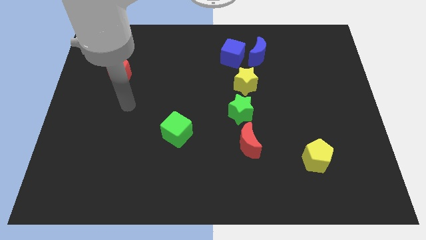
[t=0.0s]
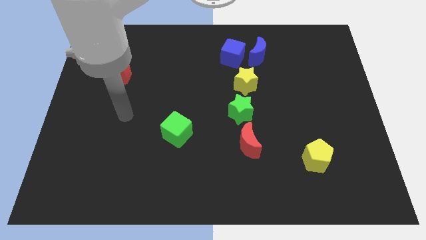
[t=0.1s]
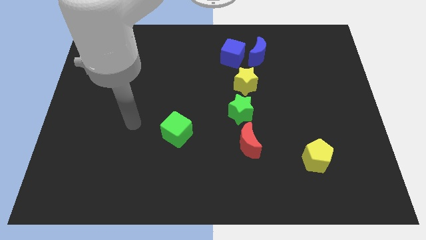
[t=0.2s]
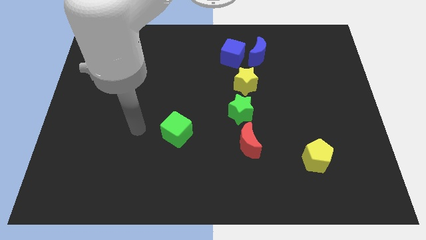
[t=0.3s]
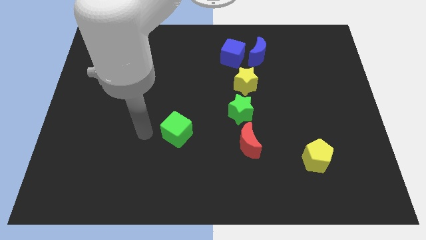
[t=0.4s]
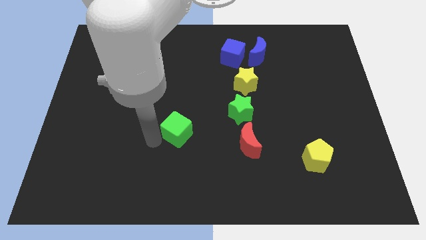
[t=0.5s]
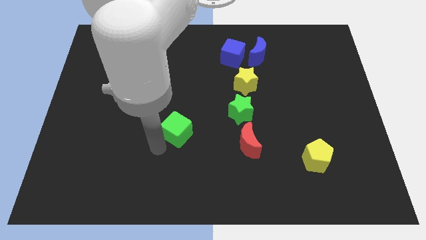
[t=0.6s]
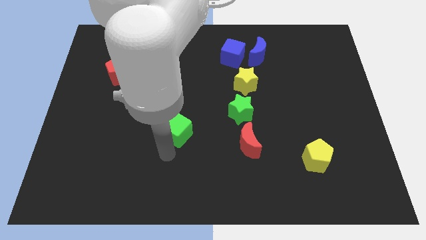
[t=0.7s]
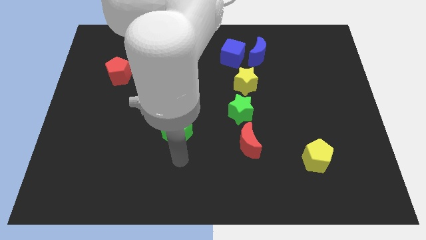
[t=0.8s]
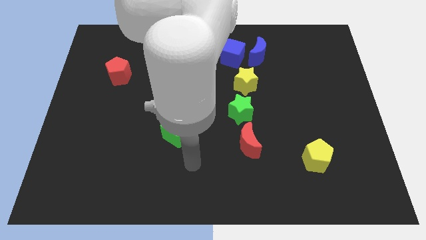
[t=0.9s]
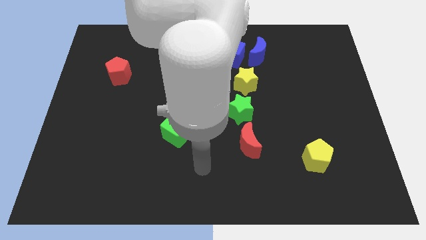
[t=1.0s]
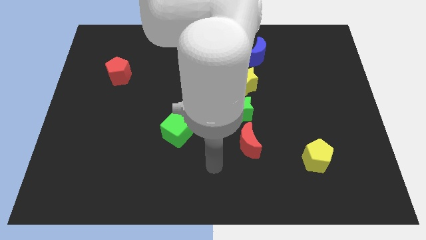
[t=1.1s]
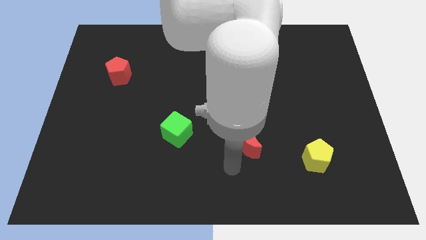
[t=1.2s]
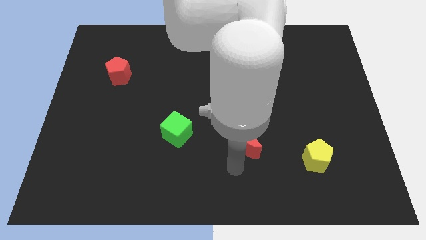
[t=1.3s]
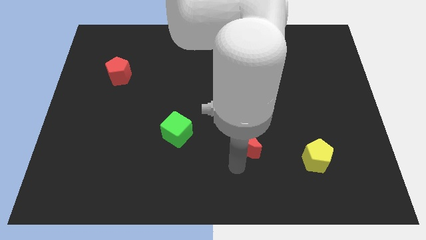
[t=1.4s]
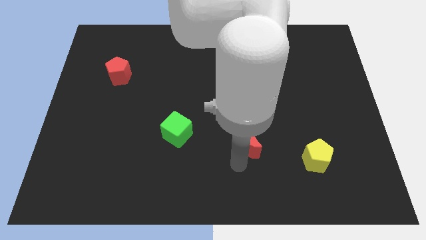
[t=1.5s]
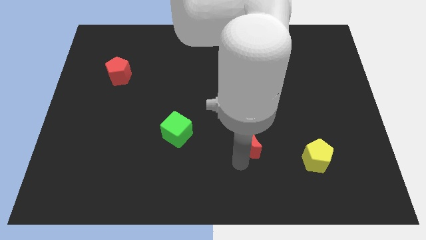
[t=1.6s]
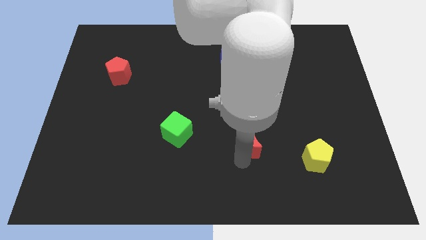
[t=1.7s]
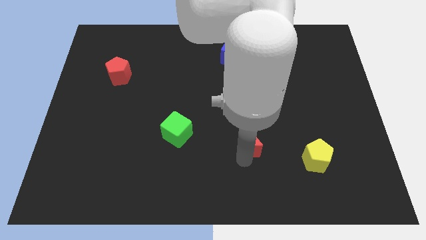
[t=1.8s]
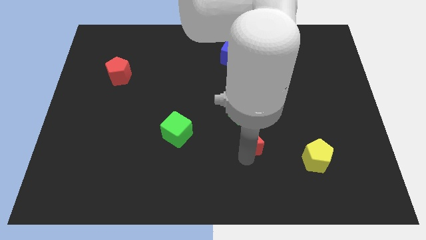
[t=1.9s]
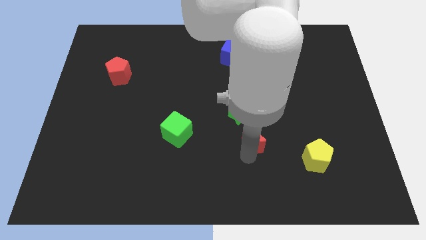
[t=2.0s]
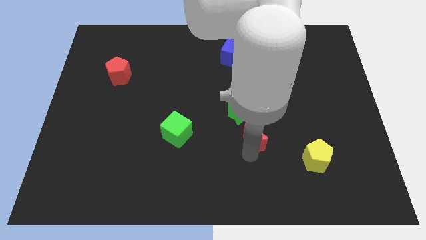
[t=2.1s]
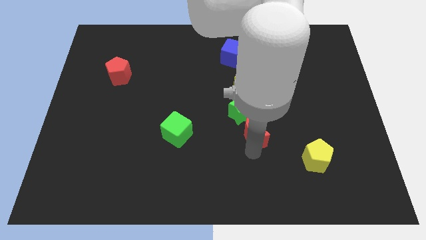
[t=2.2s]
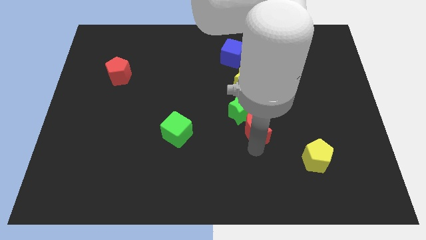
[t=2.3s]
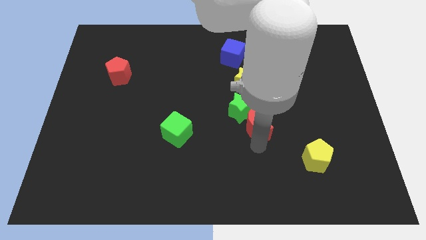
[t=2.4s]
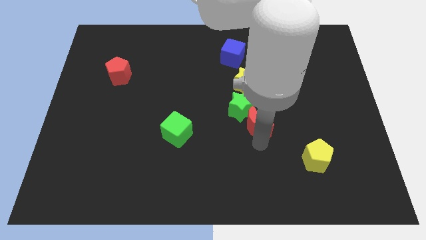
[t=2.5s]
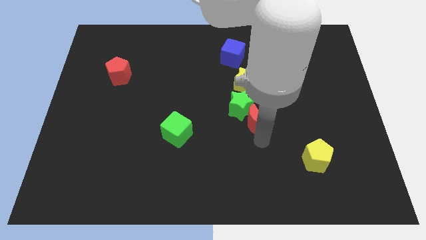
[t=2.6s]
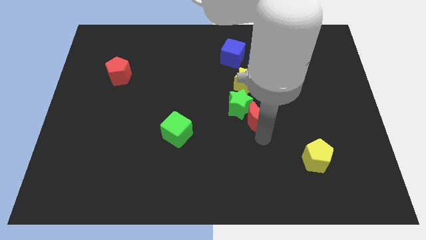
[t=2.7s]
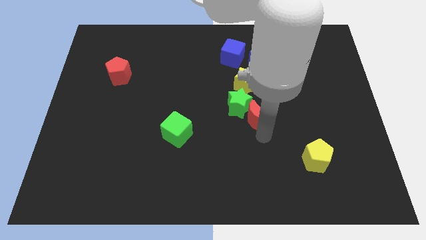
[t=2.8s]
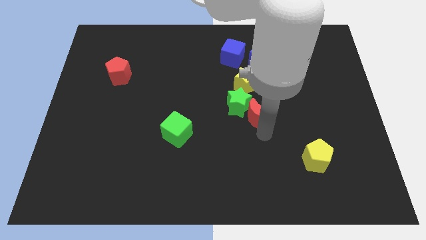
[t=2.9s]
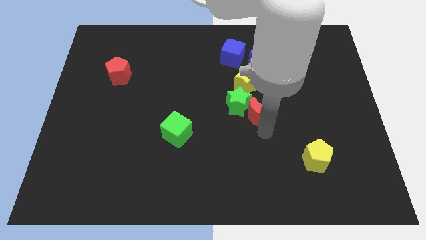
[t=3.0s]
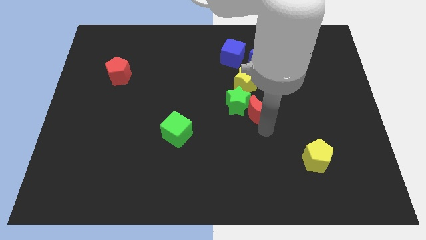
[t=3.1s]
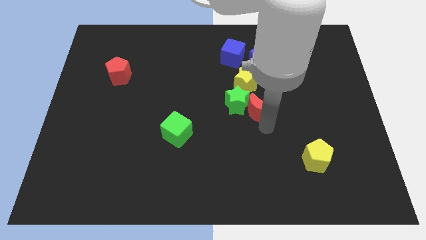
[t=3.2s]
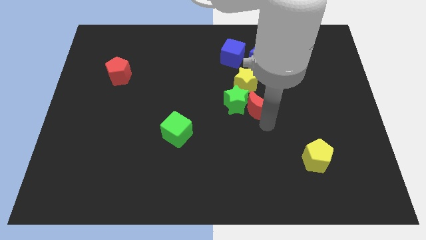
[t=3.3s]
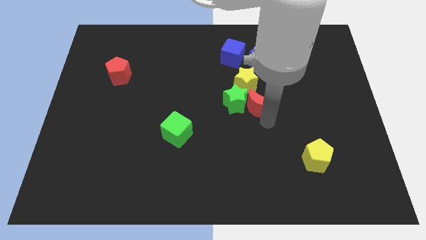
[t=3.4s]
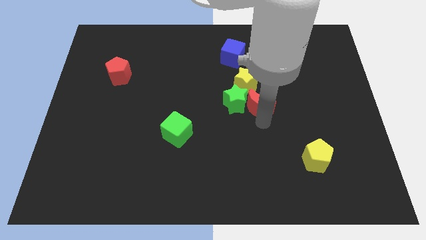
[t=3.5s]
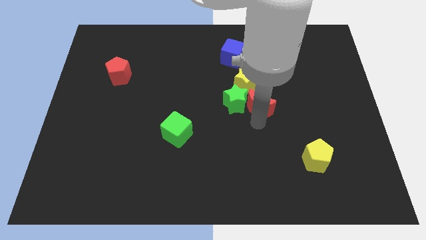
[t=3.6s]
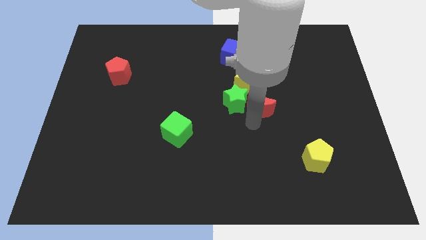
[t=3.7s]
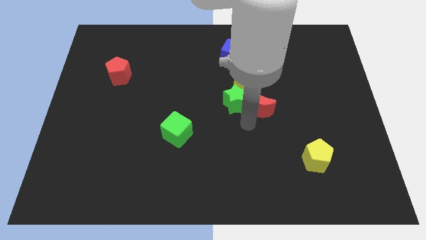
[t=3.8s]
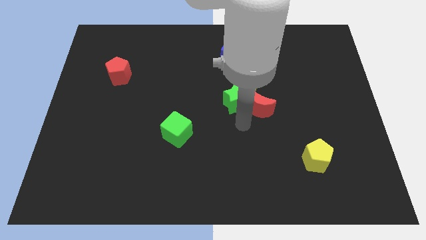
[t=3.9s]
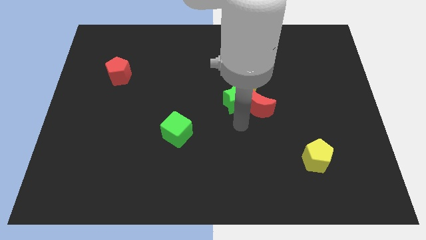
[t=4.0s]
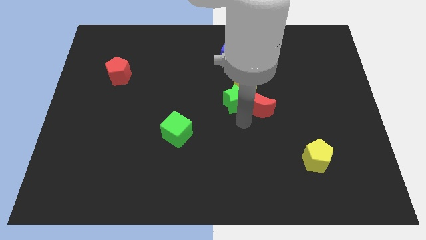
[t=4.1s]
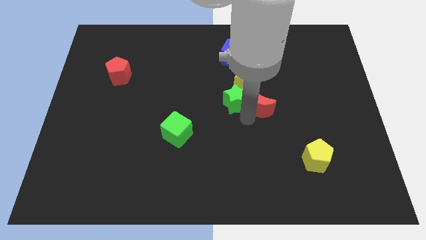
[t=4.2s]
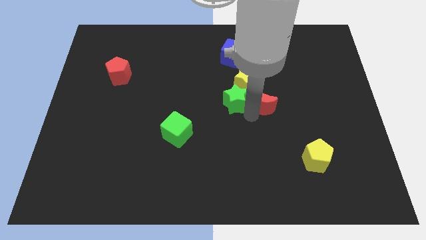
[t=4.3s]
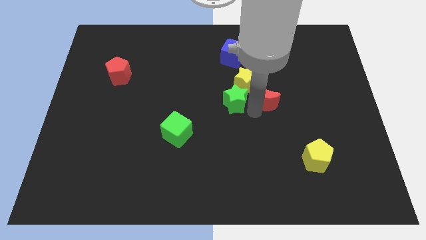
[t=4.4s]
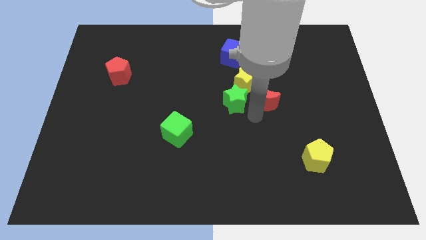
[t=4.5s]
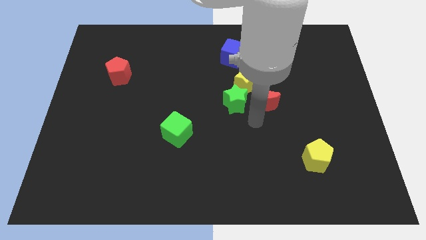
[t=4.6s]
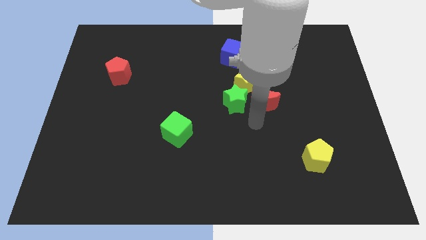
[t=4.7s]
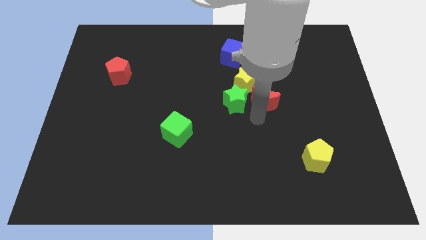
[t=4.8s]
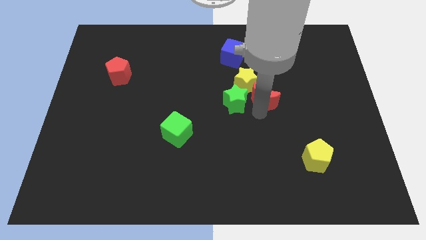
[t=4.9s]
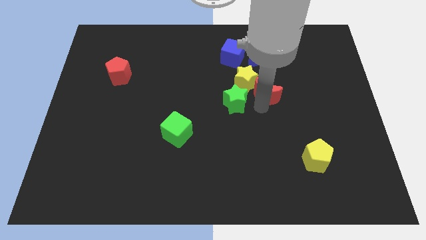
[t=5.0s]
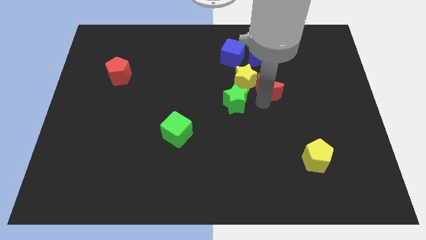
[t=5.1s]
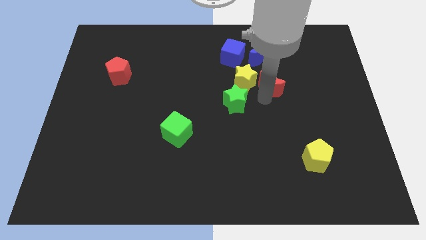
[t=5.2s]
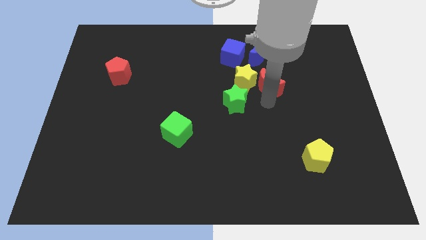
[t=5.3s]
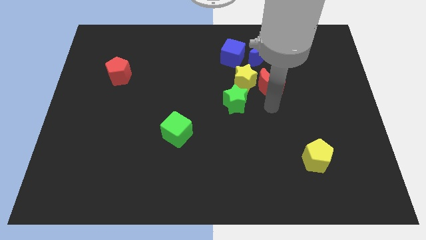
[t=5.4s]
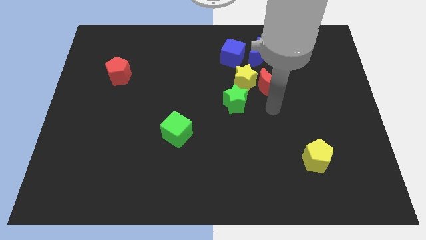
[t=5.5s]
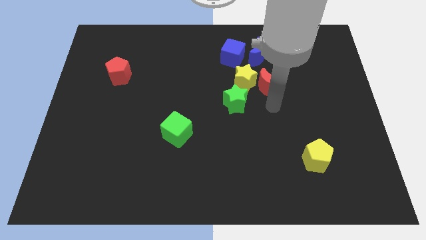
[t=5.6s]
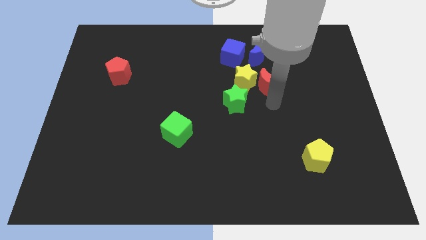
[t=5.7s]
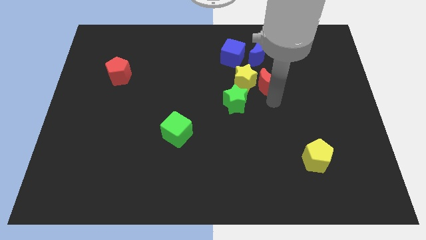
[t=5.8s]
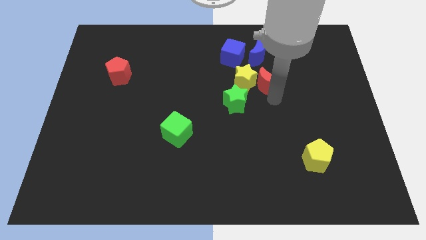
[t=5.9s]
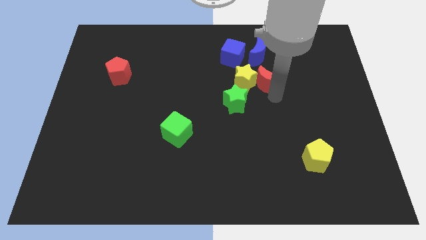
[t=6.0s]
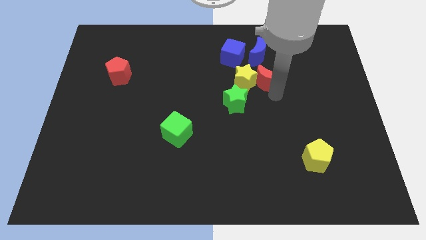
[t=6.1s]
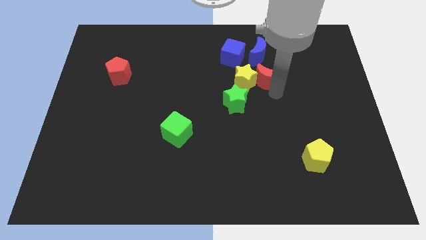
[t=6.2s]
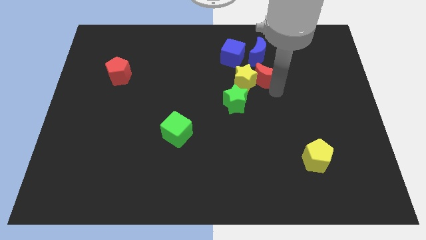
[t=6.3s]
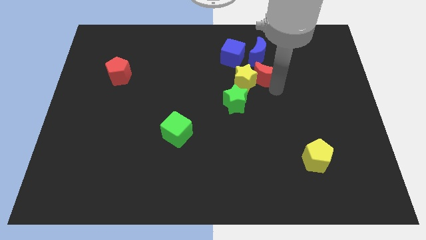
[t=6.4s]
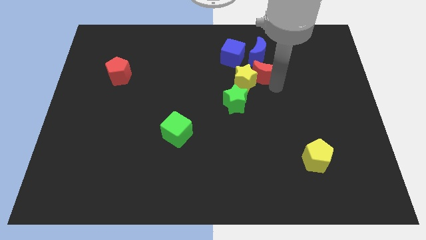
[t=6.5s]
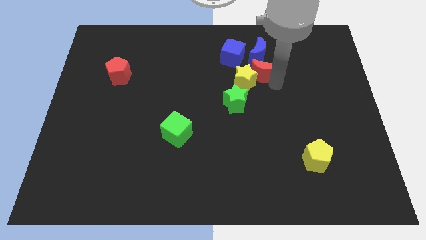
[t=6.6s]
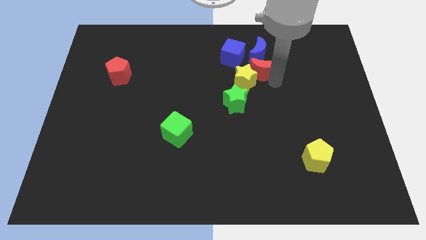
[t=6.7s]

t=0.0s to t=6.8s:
put the red moon towards the blue moon
